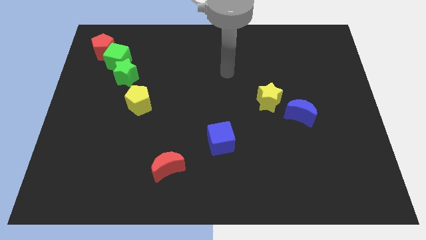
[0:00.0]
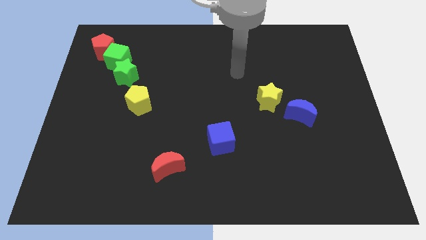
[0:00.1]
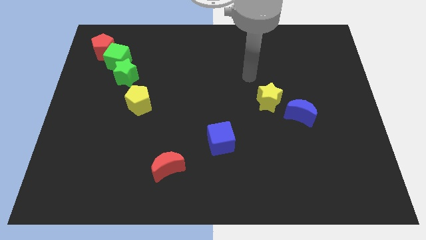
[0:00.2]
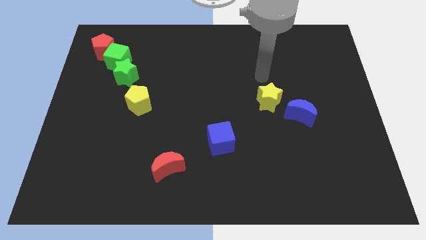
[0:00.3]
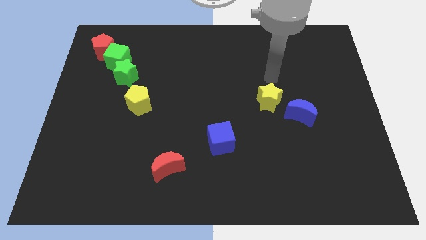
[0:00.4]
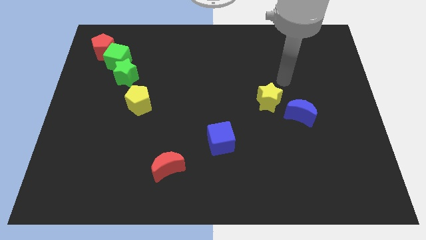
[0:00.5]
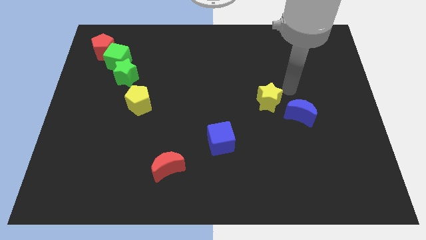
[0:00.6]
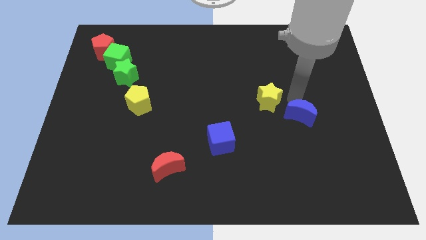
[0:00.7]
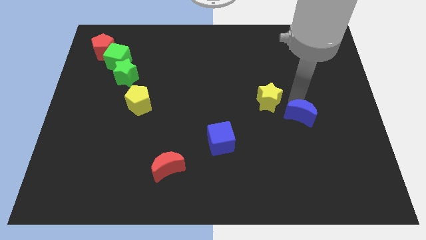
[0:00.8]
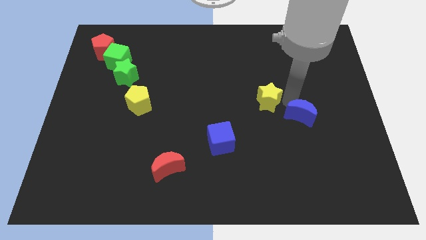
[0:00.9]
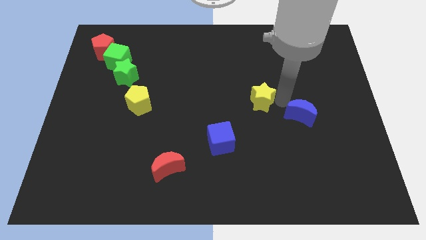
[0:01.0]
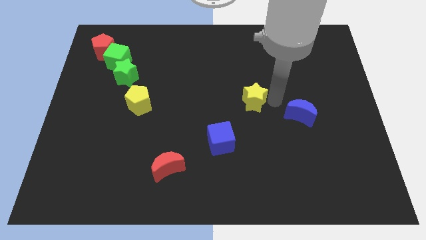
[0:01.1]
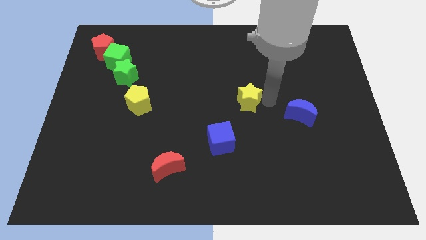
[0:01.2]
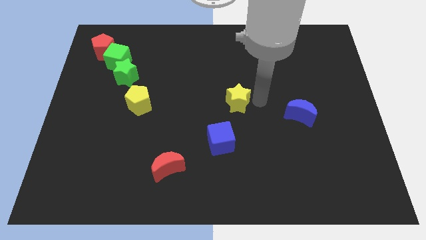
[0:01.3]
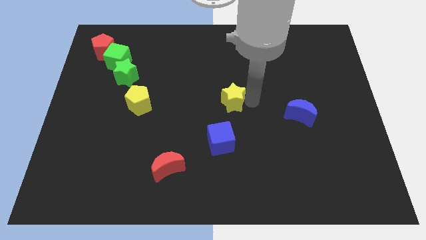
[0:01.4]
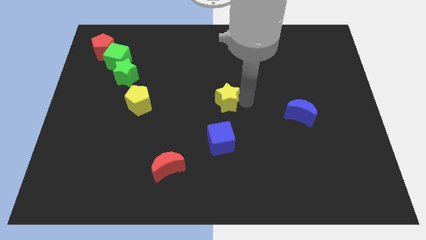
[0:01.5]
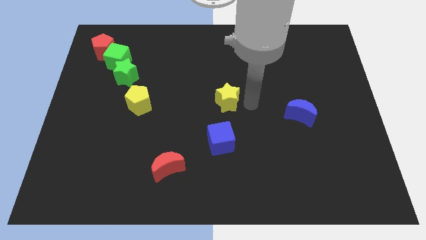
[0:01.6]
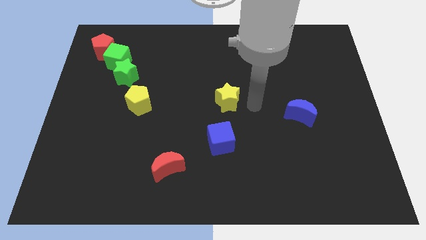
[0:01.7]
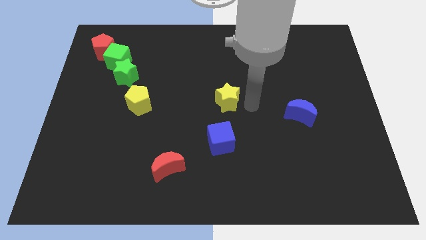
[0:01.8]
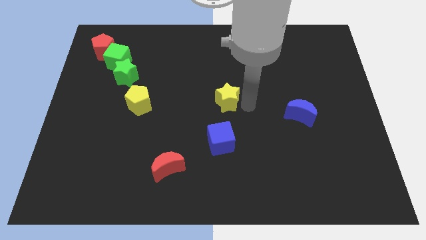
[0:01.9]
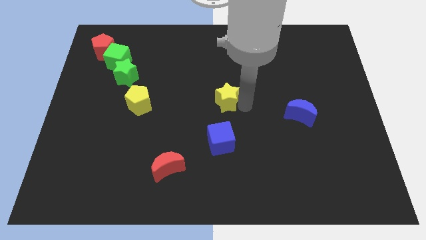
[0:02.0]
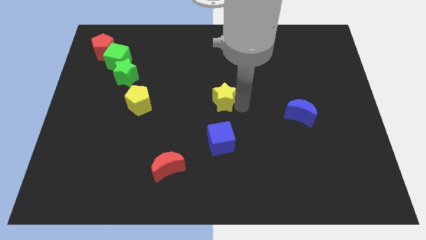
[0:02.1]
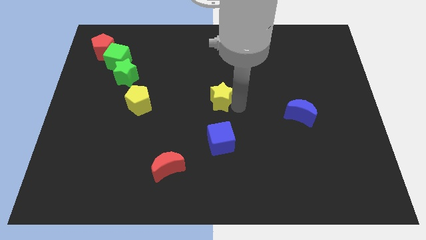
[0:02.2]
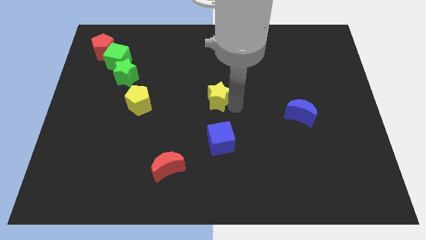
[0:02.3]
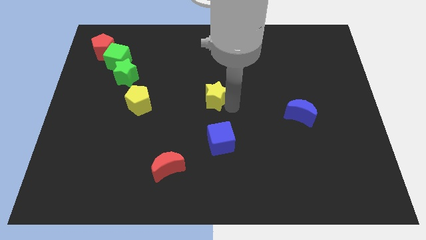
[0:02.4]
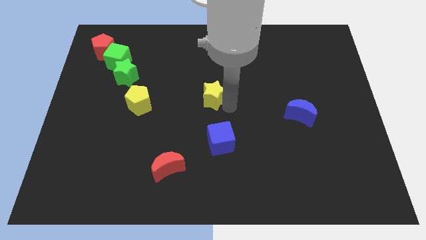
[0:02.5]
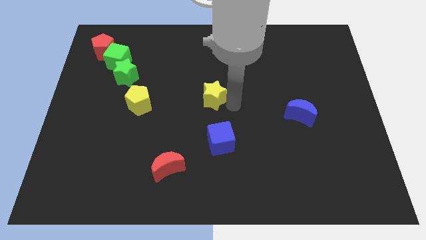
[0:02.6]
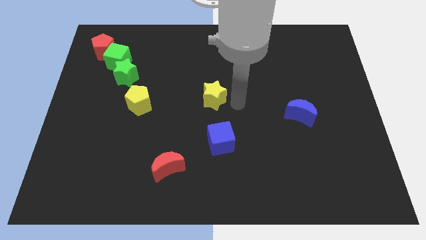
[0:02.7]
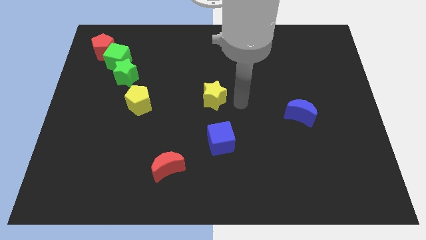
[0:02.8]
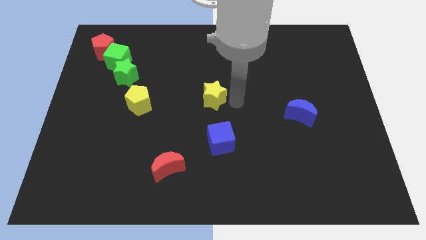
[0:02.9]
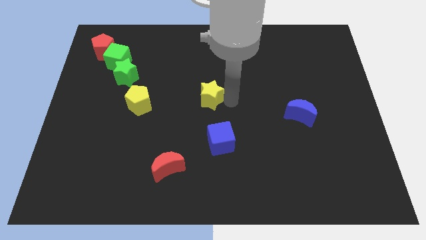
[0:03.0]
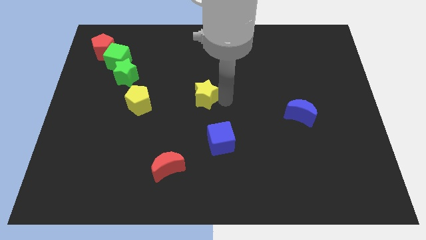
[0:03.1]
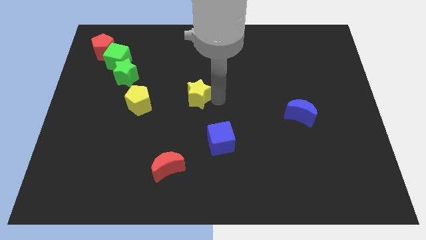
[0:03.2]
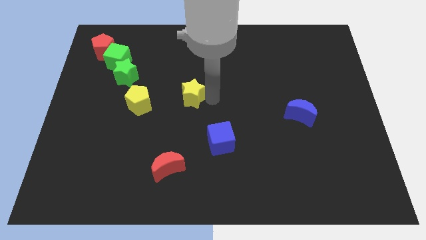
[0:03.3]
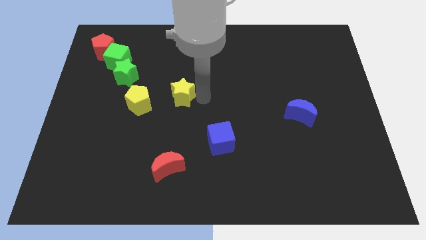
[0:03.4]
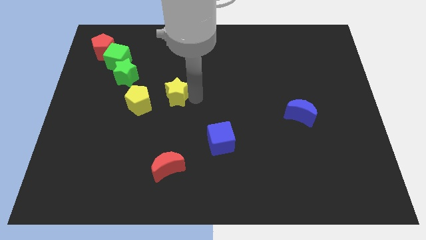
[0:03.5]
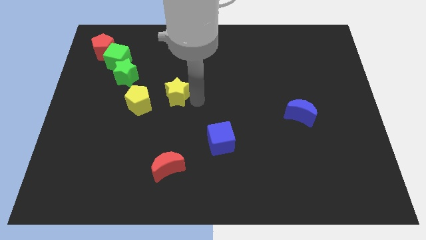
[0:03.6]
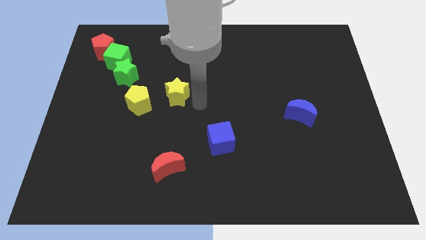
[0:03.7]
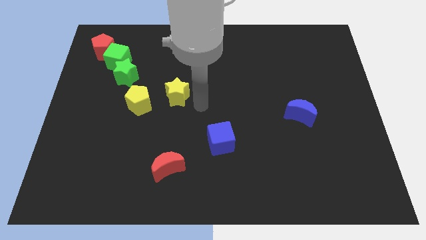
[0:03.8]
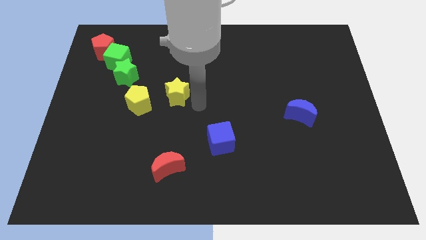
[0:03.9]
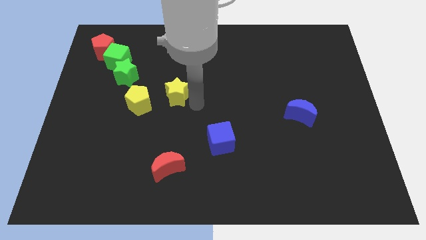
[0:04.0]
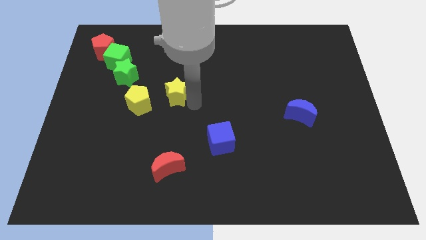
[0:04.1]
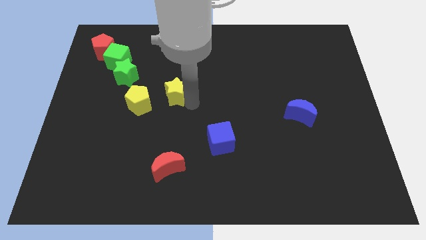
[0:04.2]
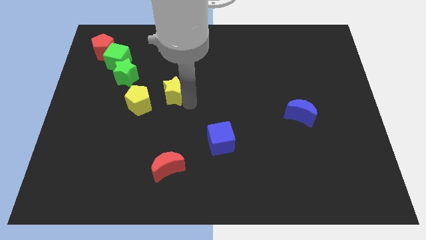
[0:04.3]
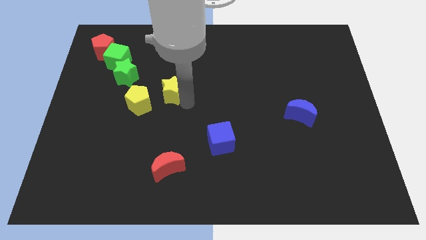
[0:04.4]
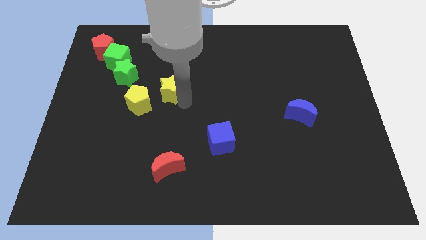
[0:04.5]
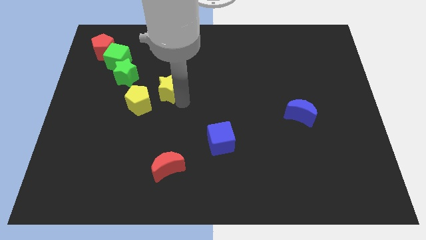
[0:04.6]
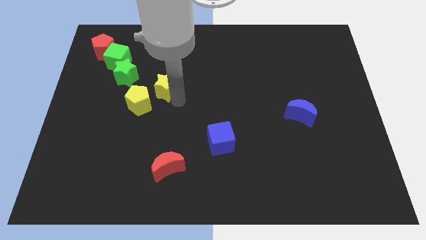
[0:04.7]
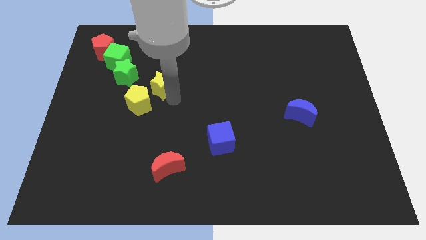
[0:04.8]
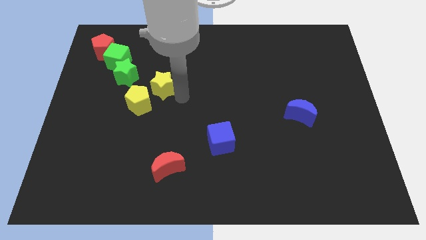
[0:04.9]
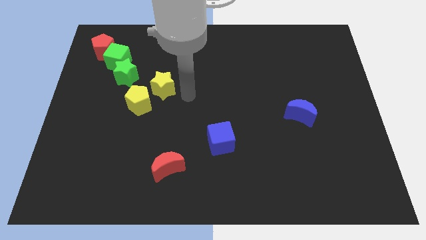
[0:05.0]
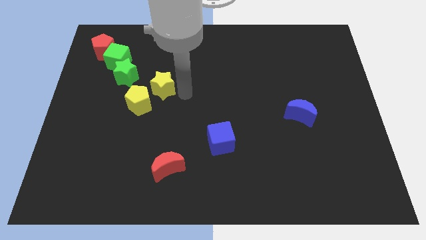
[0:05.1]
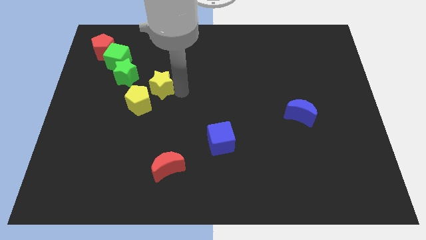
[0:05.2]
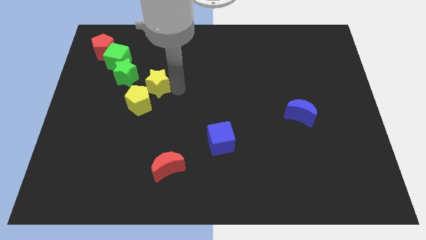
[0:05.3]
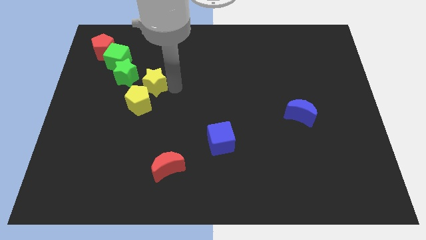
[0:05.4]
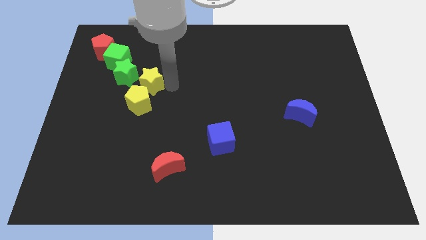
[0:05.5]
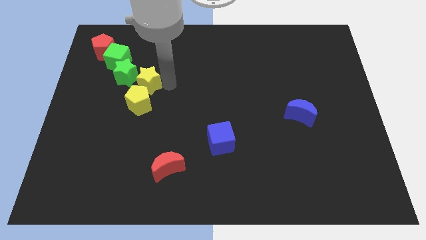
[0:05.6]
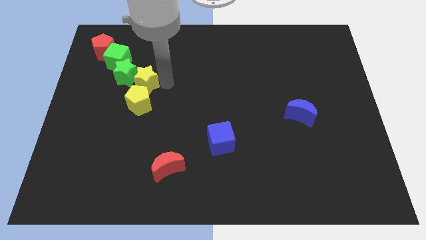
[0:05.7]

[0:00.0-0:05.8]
put the yellow star close to the green star

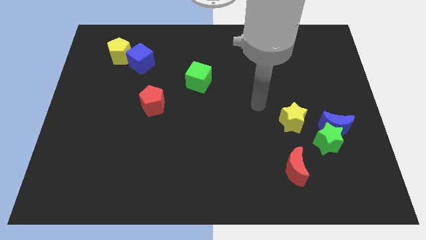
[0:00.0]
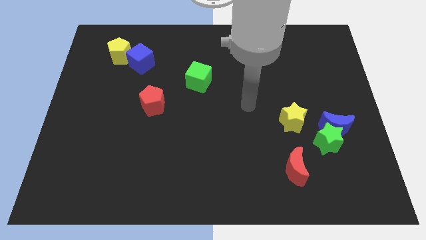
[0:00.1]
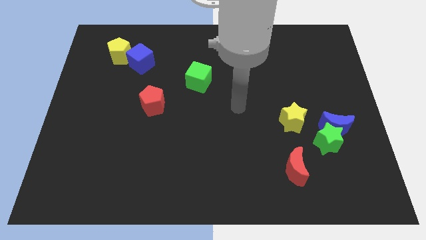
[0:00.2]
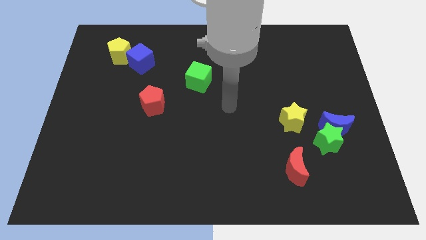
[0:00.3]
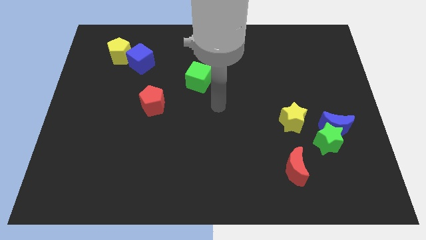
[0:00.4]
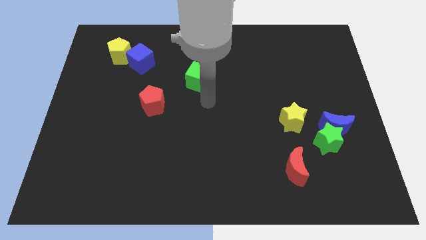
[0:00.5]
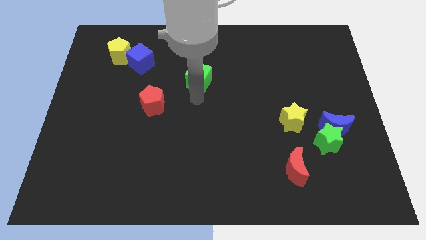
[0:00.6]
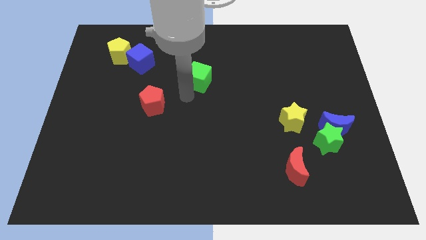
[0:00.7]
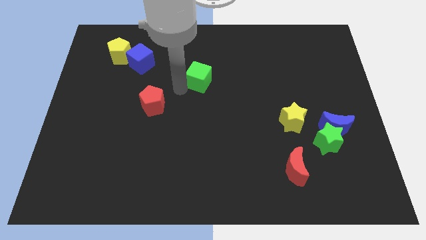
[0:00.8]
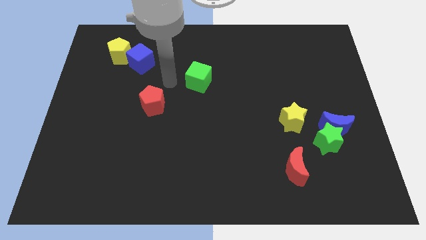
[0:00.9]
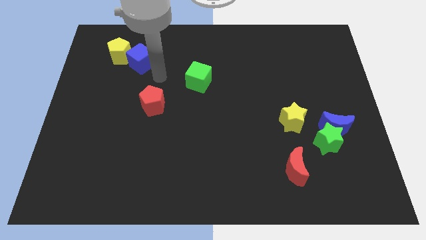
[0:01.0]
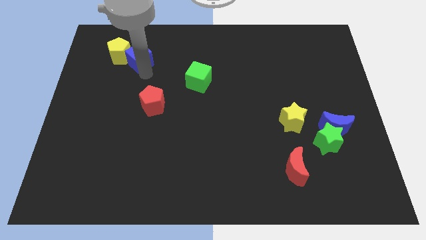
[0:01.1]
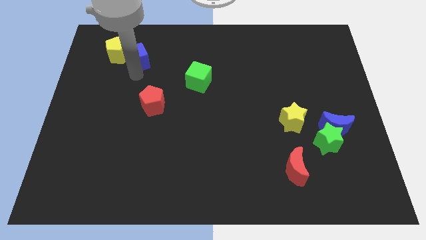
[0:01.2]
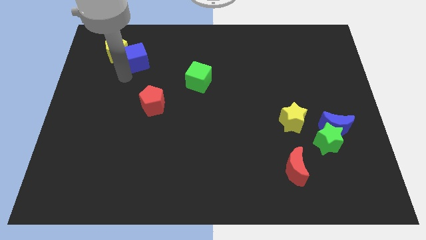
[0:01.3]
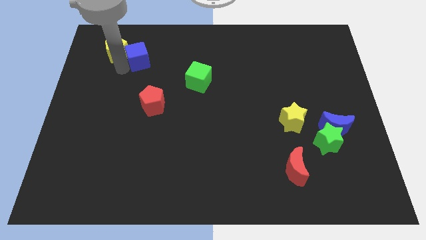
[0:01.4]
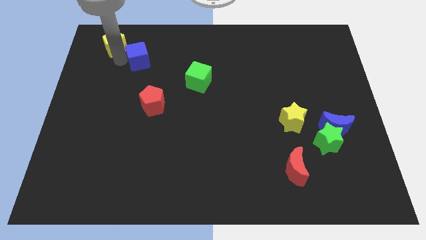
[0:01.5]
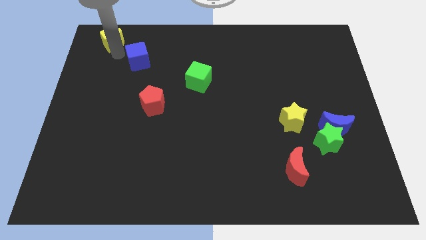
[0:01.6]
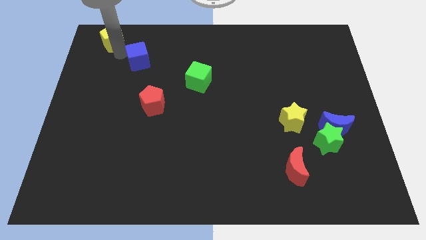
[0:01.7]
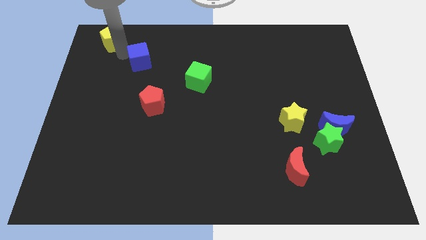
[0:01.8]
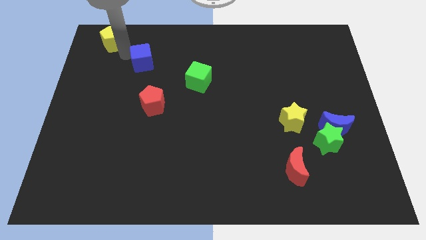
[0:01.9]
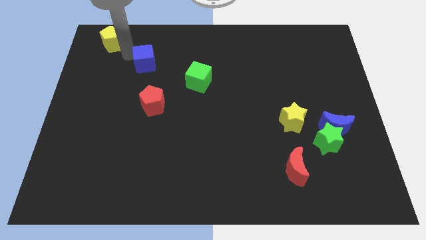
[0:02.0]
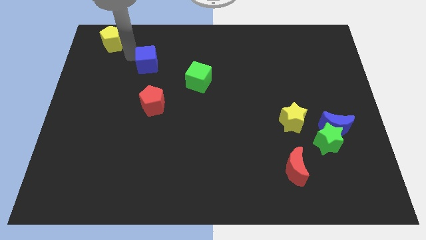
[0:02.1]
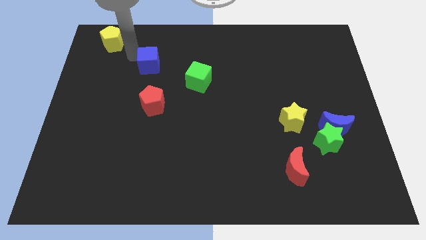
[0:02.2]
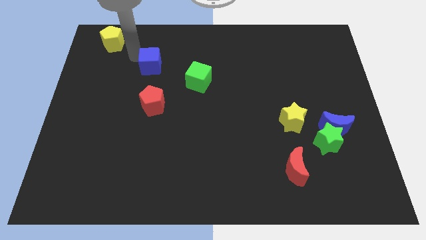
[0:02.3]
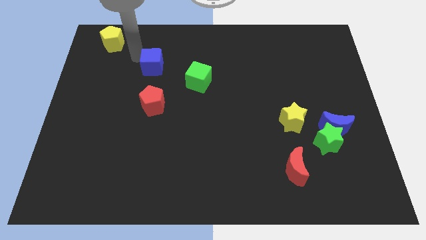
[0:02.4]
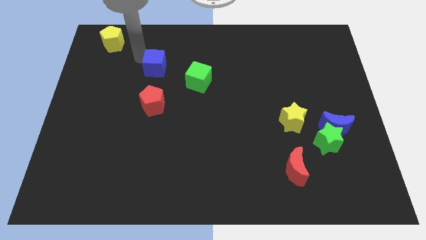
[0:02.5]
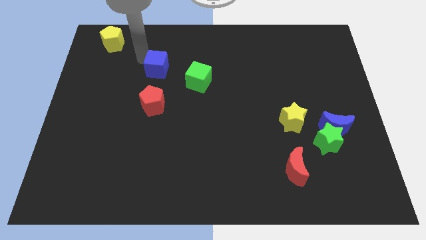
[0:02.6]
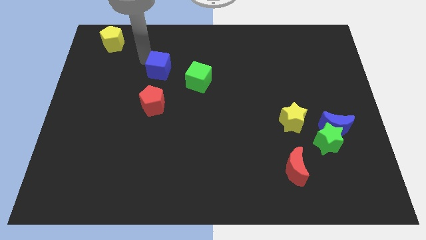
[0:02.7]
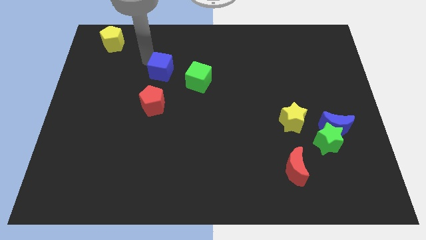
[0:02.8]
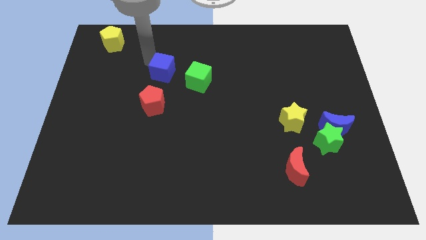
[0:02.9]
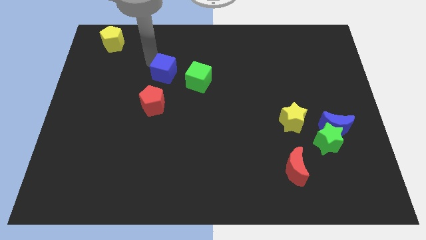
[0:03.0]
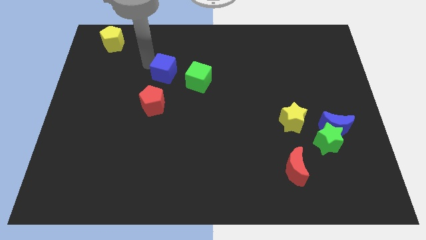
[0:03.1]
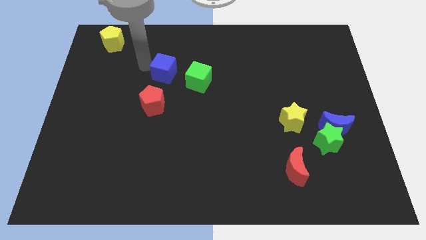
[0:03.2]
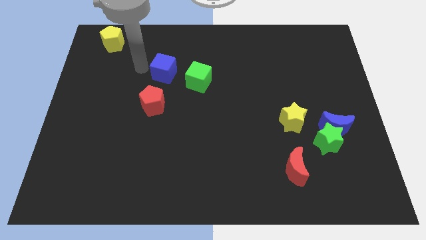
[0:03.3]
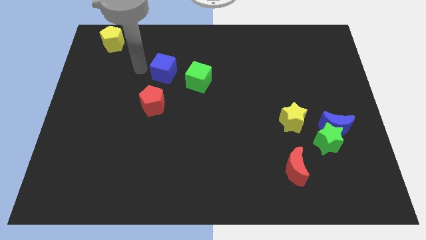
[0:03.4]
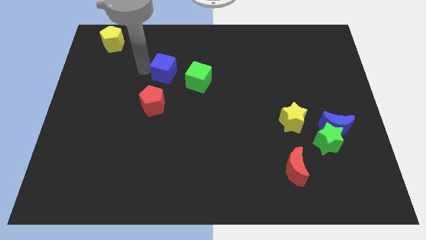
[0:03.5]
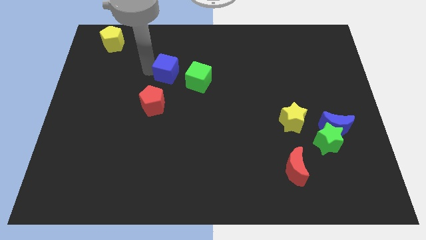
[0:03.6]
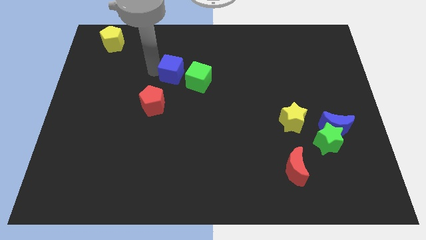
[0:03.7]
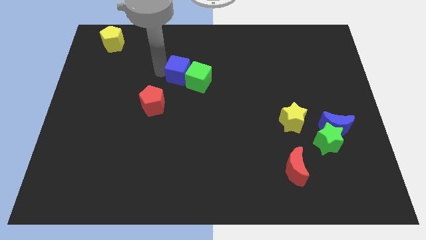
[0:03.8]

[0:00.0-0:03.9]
move the blue cube next to the green cube
